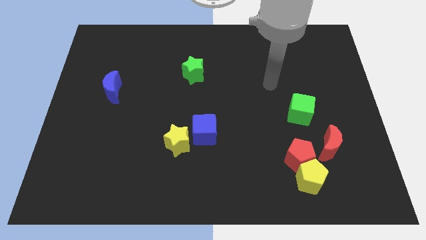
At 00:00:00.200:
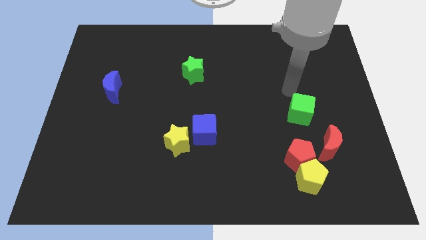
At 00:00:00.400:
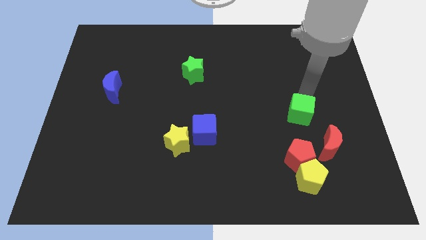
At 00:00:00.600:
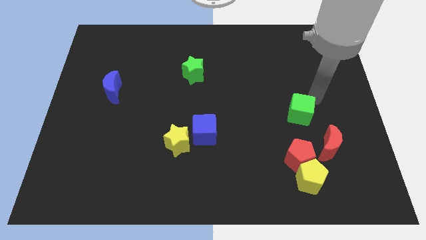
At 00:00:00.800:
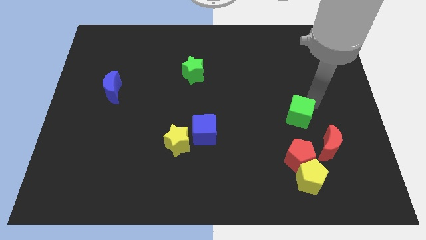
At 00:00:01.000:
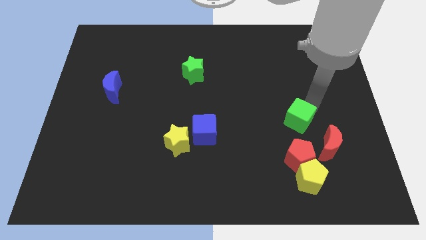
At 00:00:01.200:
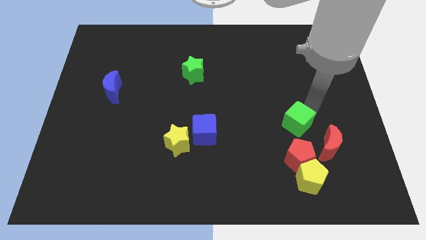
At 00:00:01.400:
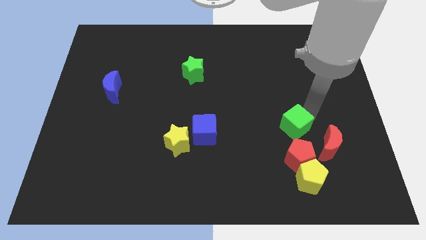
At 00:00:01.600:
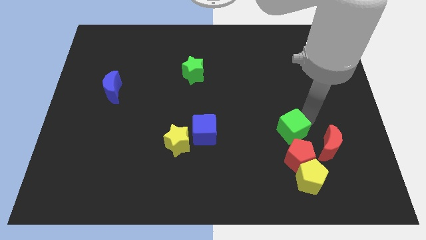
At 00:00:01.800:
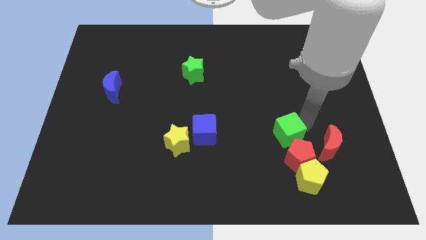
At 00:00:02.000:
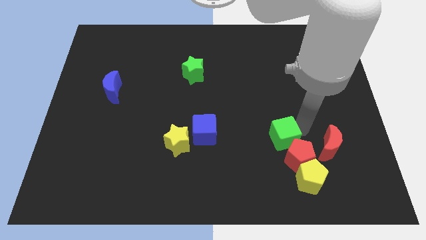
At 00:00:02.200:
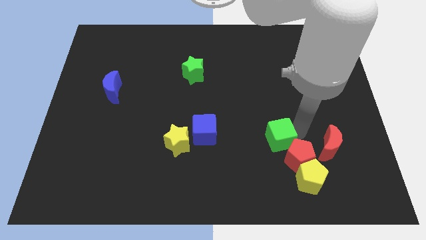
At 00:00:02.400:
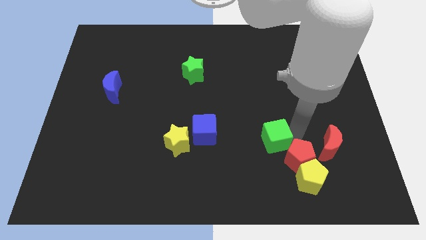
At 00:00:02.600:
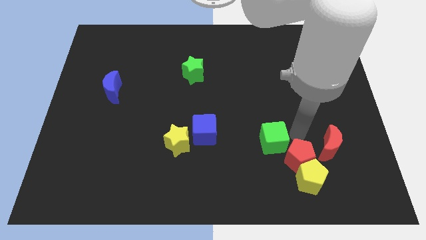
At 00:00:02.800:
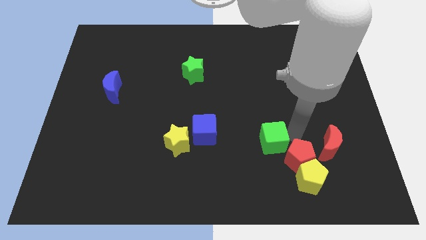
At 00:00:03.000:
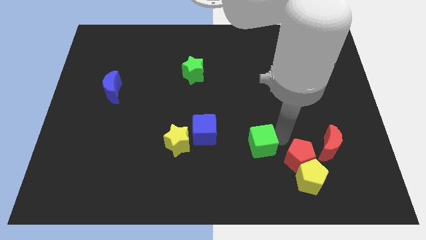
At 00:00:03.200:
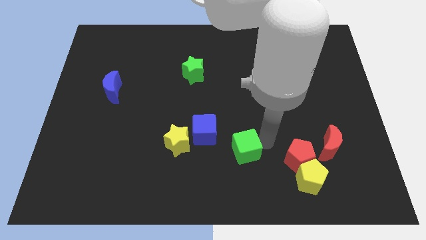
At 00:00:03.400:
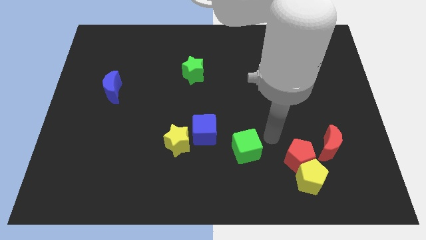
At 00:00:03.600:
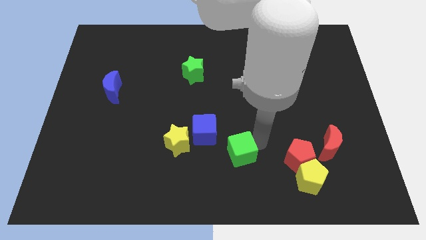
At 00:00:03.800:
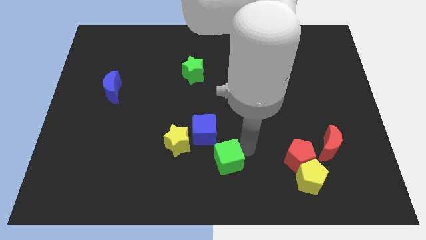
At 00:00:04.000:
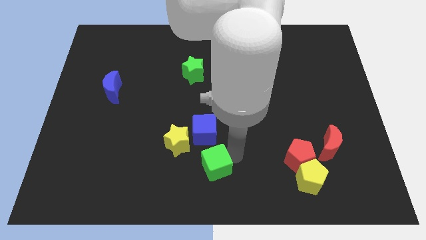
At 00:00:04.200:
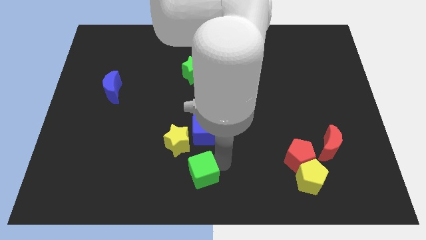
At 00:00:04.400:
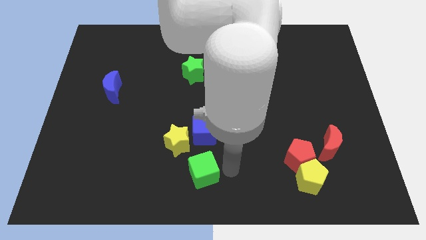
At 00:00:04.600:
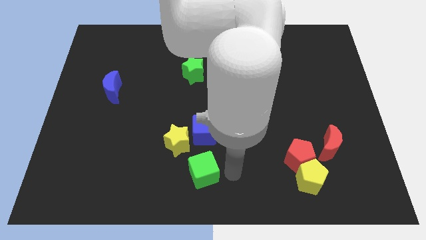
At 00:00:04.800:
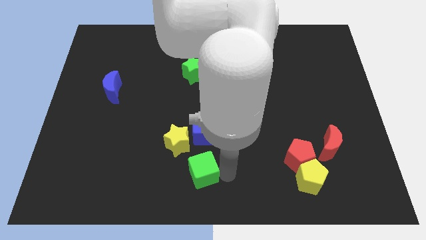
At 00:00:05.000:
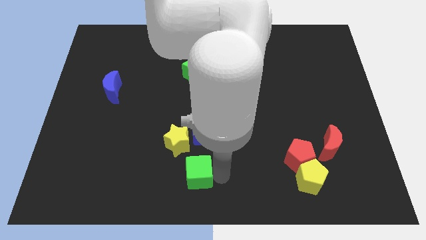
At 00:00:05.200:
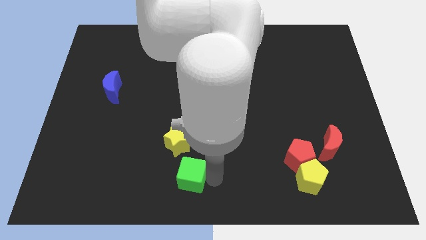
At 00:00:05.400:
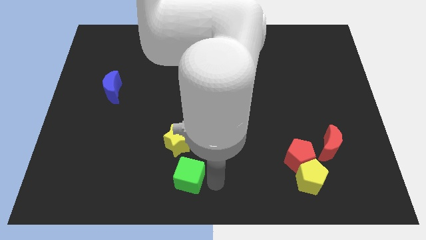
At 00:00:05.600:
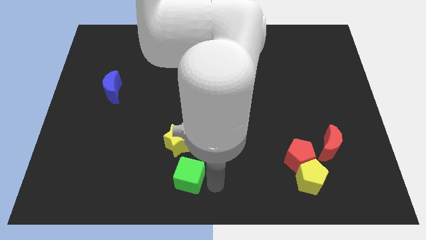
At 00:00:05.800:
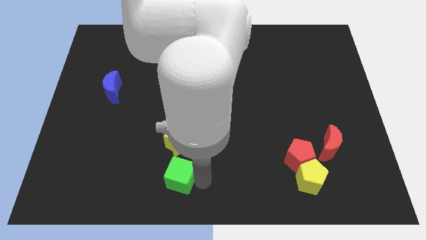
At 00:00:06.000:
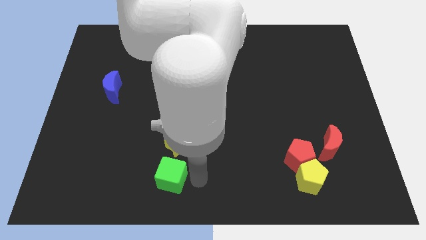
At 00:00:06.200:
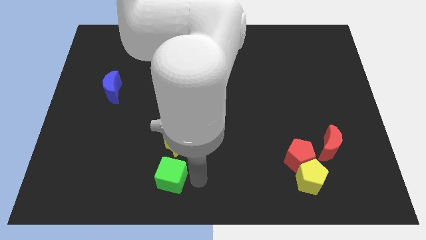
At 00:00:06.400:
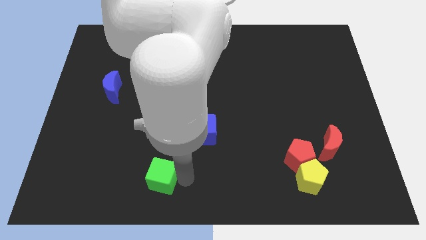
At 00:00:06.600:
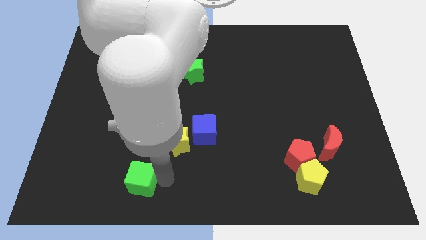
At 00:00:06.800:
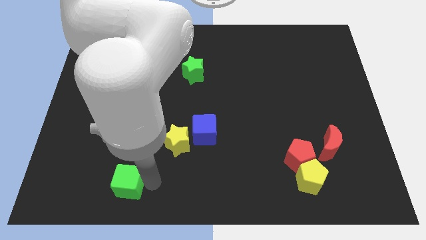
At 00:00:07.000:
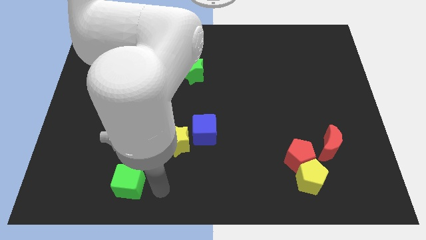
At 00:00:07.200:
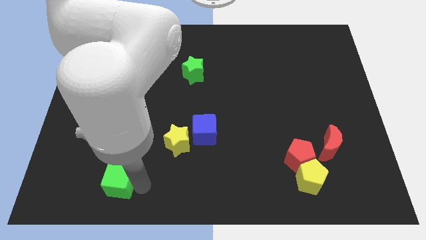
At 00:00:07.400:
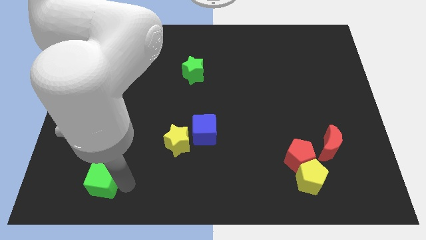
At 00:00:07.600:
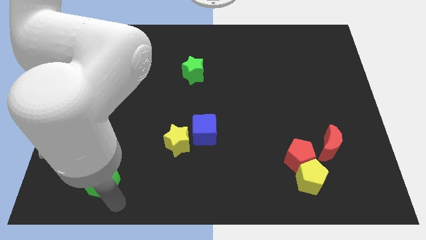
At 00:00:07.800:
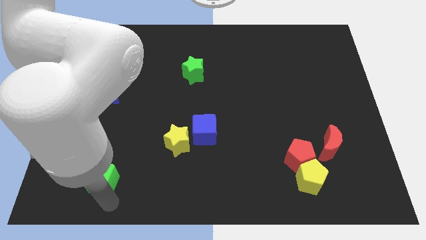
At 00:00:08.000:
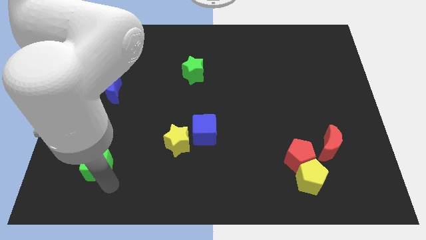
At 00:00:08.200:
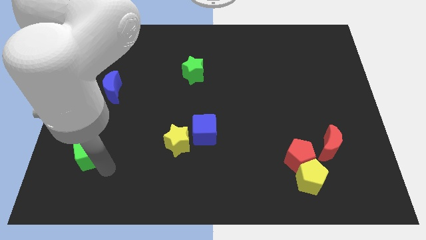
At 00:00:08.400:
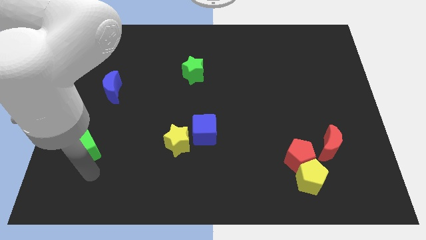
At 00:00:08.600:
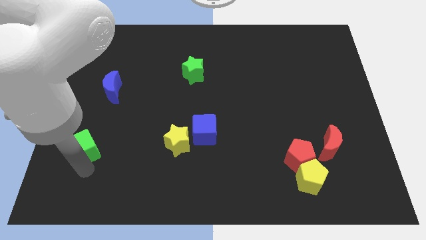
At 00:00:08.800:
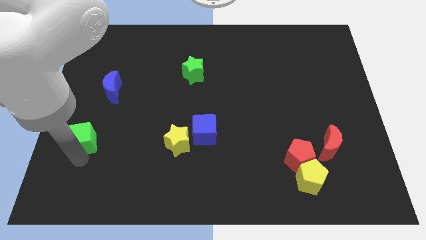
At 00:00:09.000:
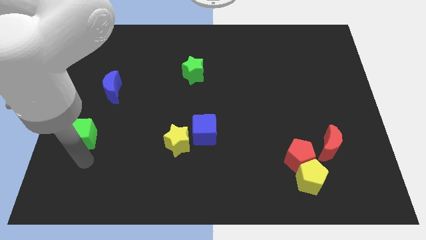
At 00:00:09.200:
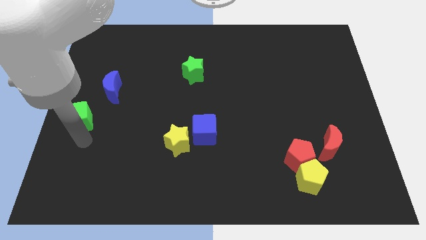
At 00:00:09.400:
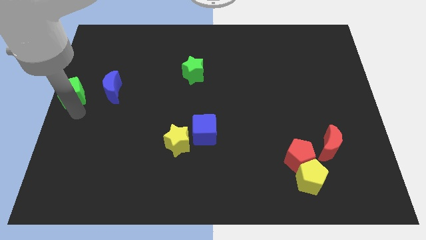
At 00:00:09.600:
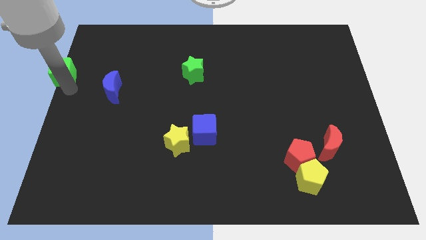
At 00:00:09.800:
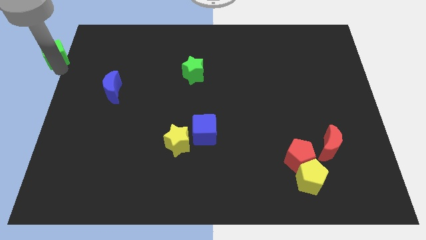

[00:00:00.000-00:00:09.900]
push the green cube to the top left of the board

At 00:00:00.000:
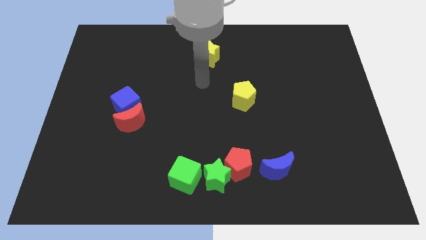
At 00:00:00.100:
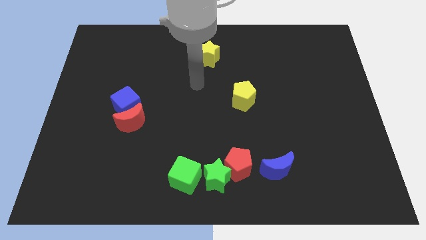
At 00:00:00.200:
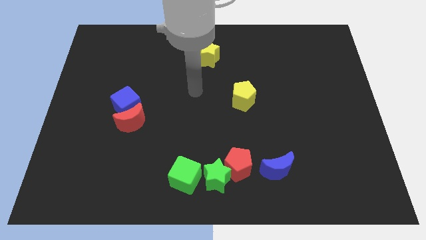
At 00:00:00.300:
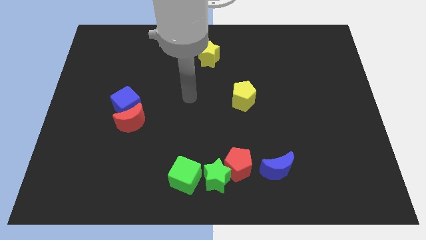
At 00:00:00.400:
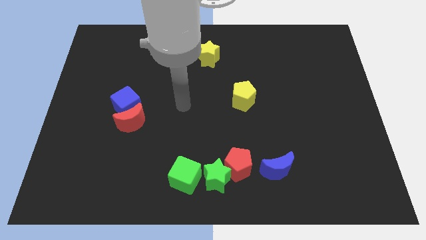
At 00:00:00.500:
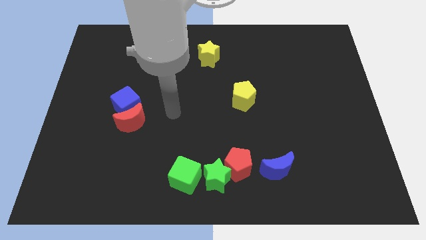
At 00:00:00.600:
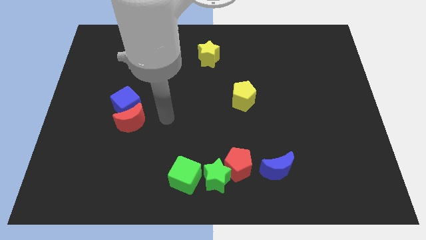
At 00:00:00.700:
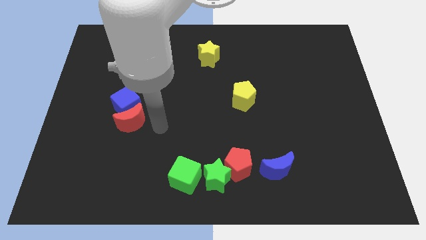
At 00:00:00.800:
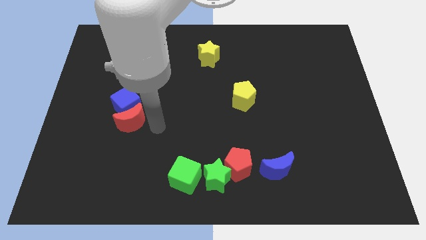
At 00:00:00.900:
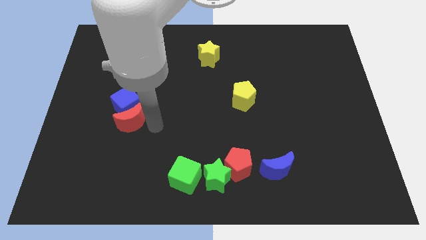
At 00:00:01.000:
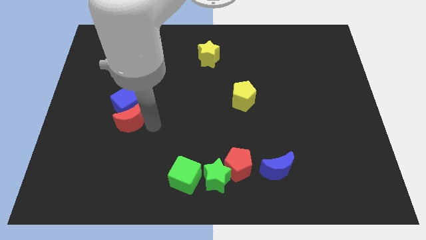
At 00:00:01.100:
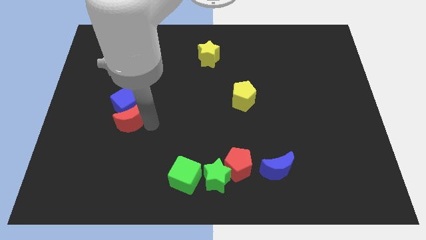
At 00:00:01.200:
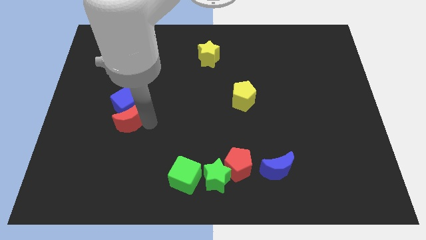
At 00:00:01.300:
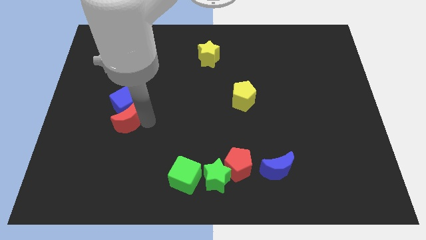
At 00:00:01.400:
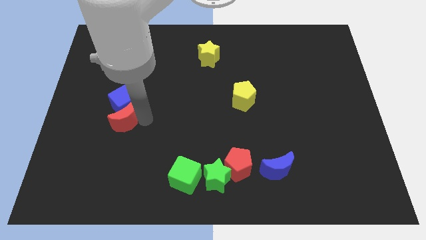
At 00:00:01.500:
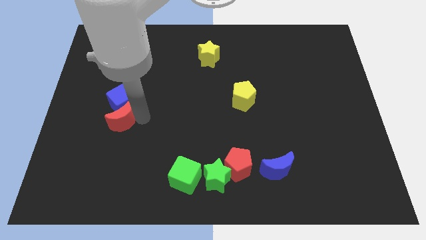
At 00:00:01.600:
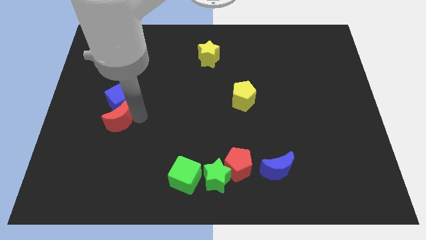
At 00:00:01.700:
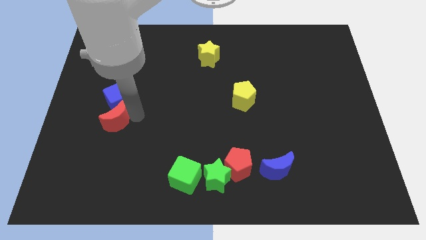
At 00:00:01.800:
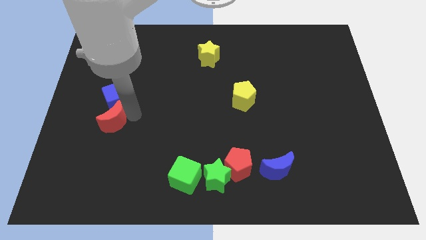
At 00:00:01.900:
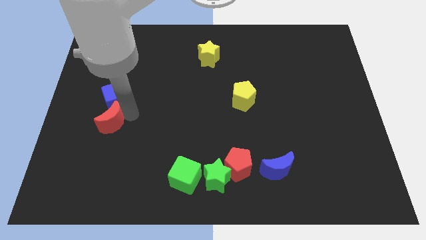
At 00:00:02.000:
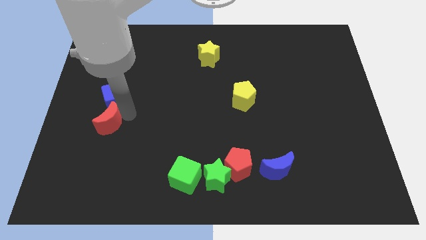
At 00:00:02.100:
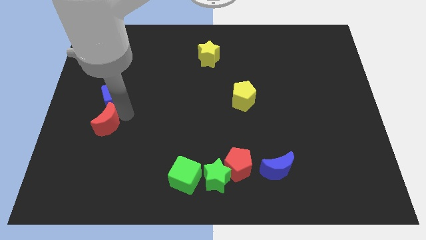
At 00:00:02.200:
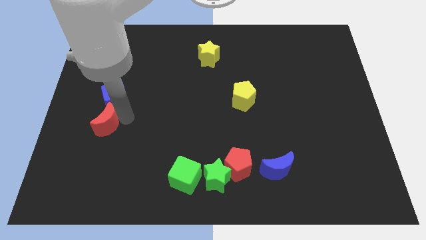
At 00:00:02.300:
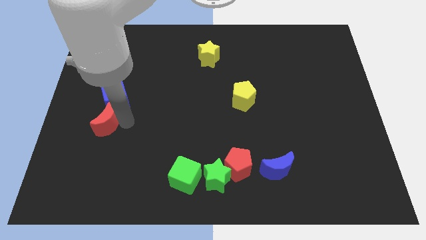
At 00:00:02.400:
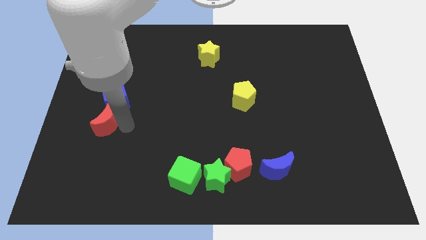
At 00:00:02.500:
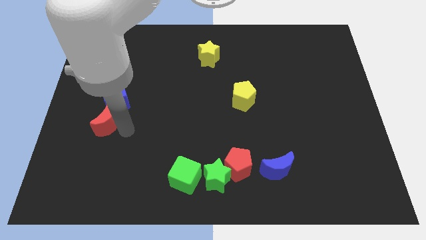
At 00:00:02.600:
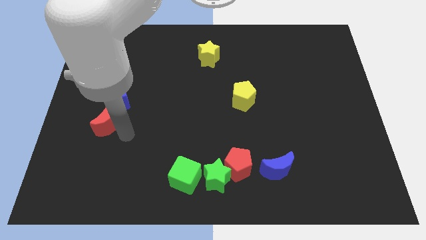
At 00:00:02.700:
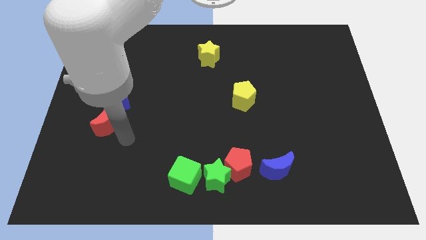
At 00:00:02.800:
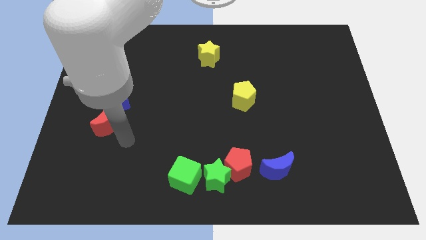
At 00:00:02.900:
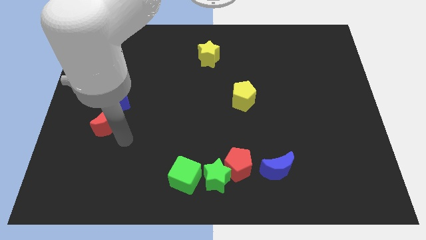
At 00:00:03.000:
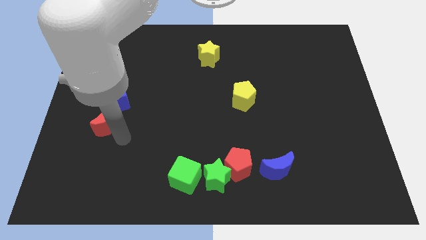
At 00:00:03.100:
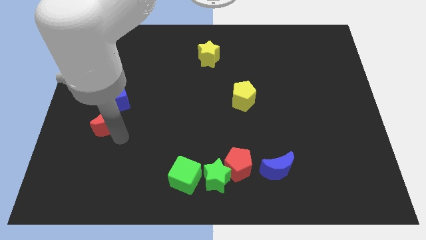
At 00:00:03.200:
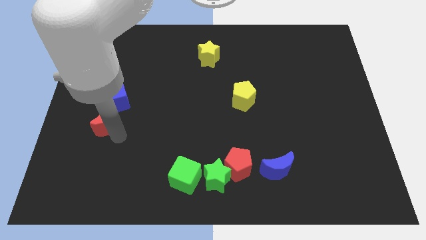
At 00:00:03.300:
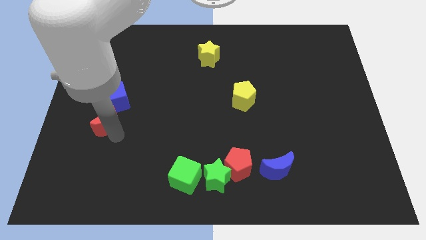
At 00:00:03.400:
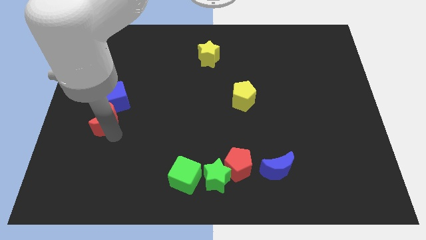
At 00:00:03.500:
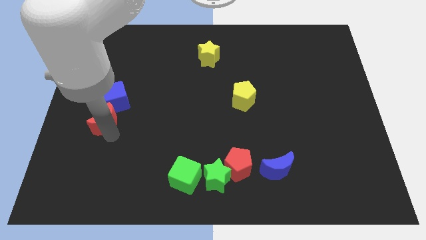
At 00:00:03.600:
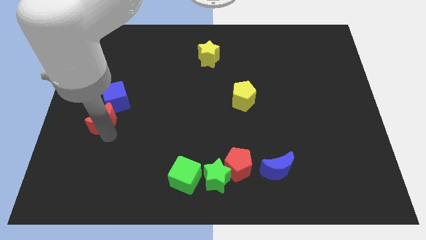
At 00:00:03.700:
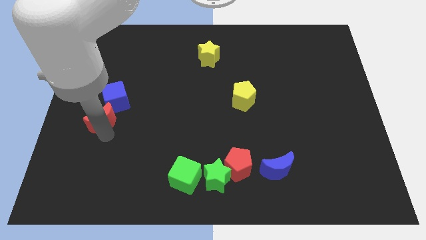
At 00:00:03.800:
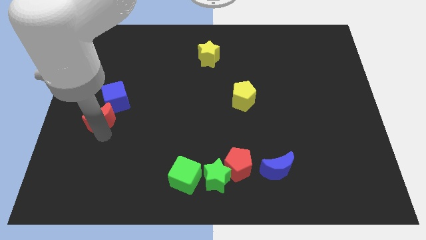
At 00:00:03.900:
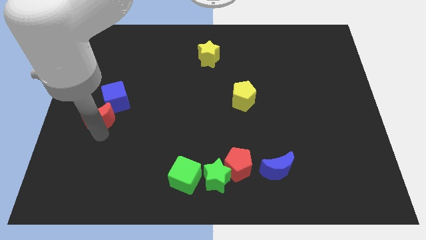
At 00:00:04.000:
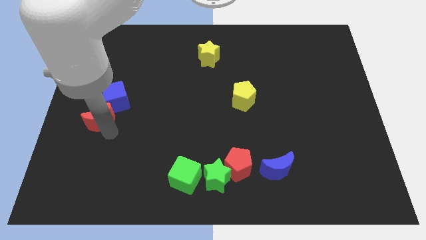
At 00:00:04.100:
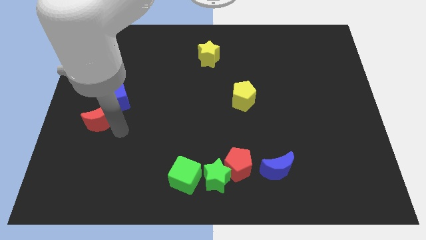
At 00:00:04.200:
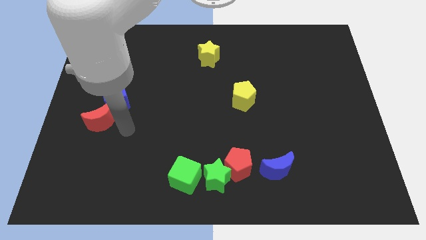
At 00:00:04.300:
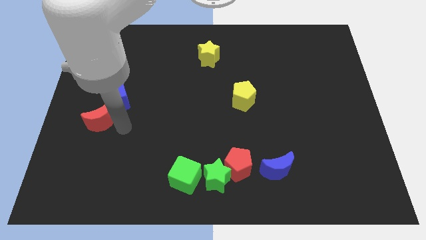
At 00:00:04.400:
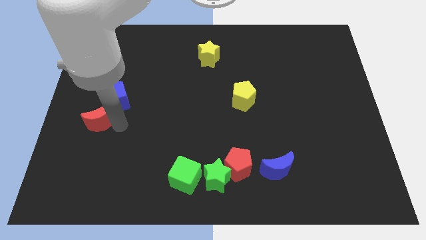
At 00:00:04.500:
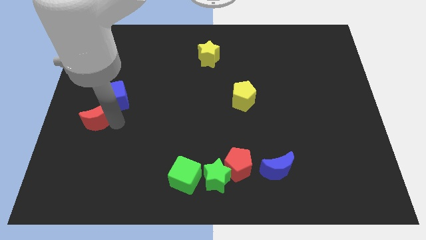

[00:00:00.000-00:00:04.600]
slide the red moon to the left side
